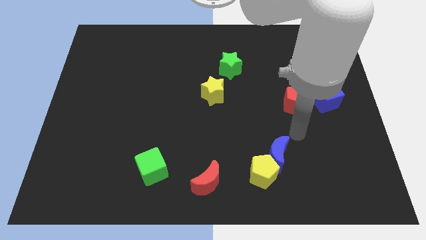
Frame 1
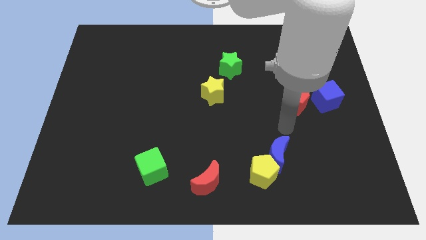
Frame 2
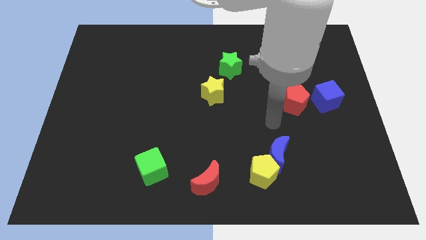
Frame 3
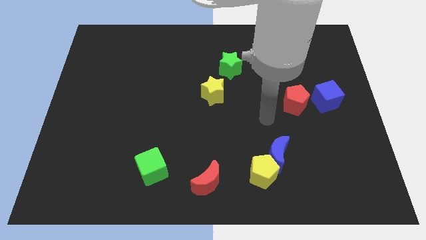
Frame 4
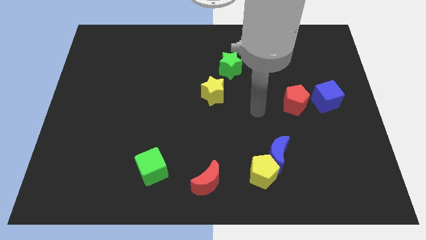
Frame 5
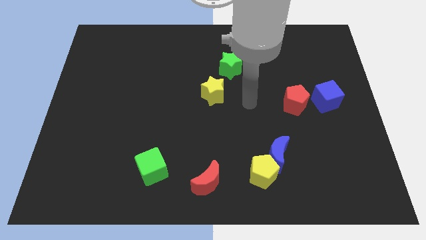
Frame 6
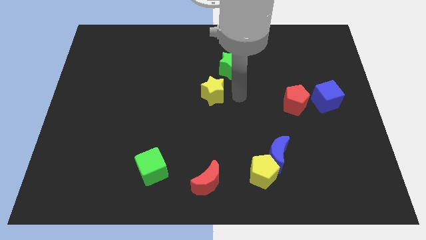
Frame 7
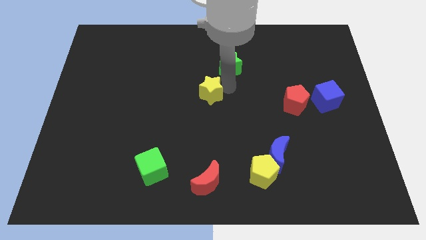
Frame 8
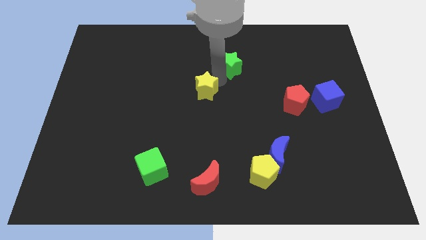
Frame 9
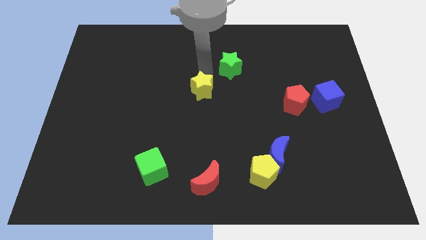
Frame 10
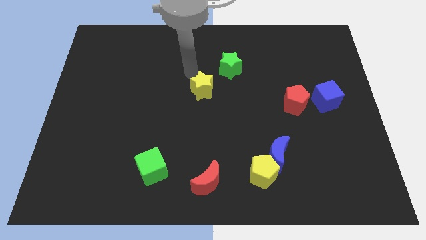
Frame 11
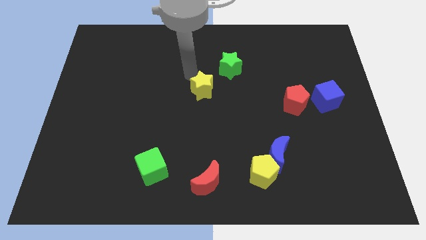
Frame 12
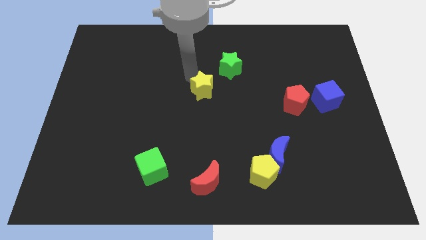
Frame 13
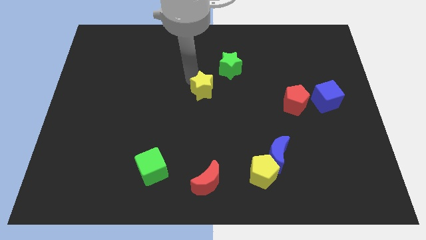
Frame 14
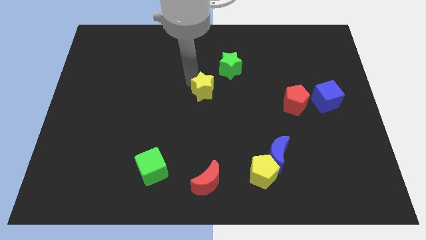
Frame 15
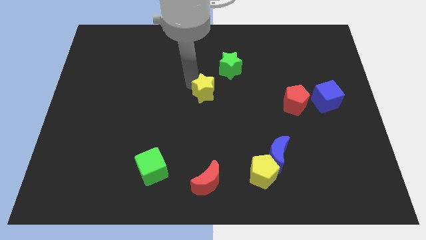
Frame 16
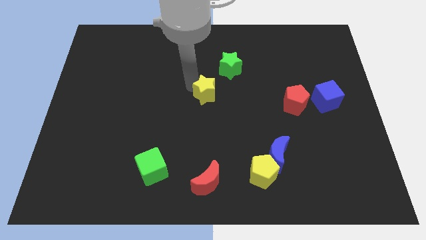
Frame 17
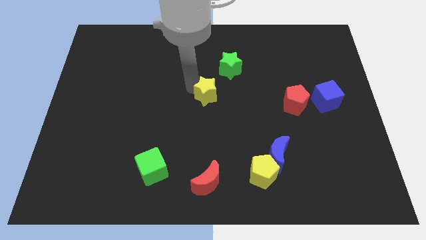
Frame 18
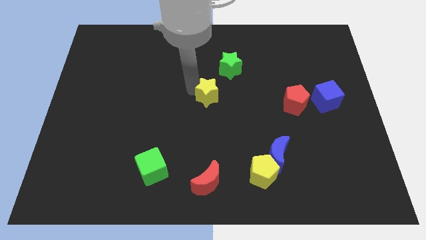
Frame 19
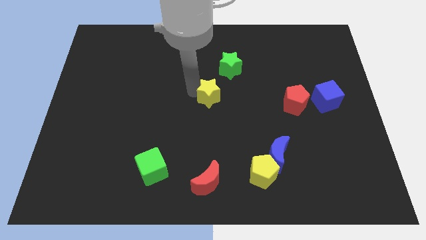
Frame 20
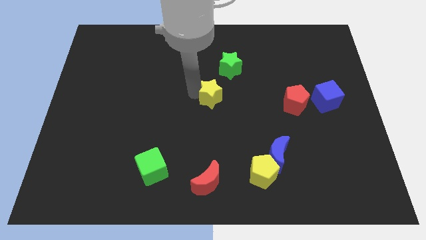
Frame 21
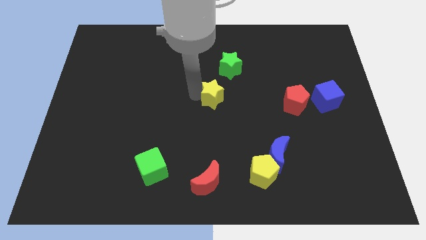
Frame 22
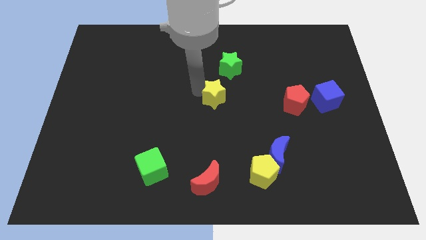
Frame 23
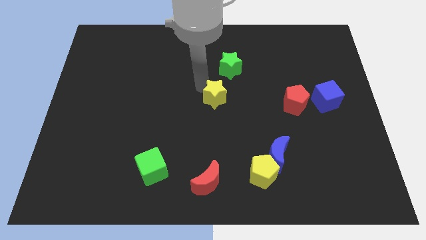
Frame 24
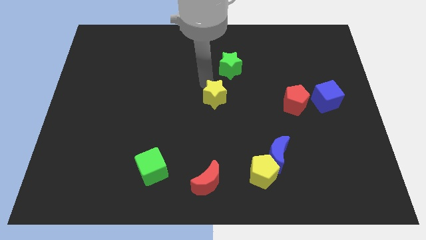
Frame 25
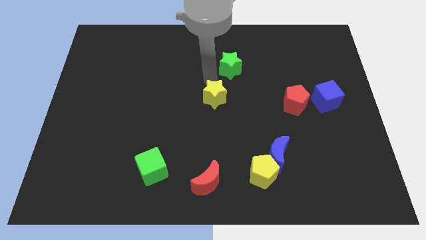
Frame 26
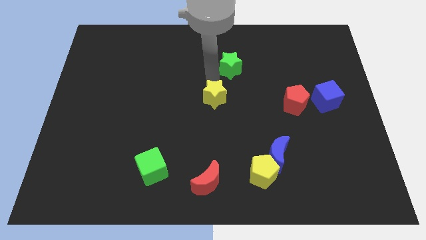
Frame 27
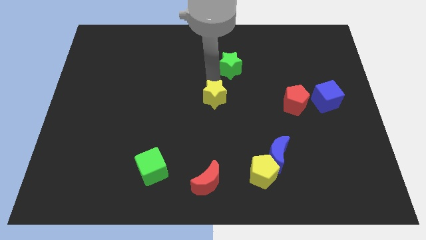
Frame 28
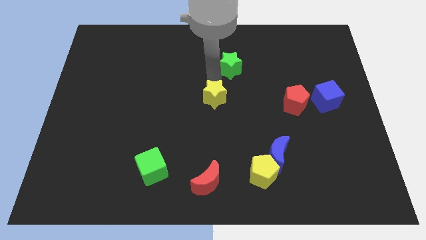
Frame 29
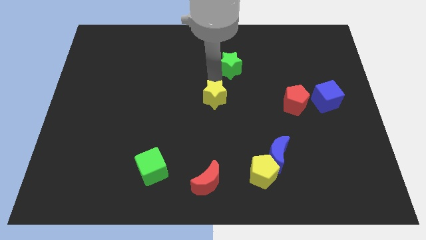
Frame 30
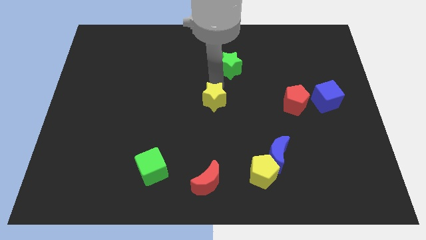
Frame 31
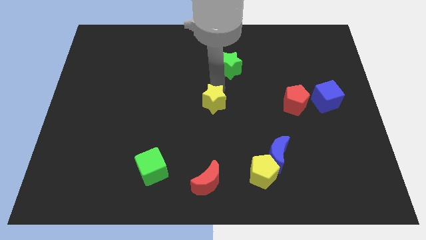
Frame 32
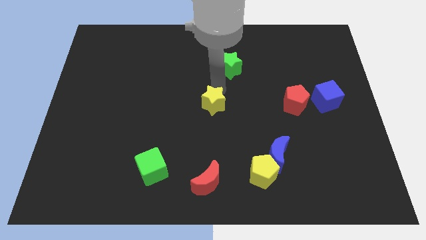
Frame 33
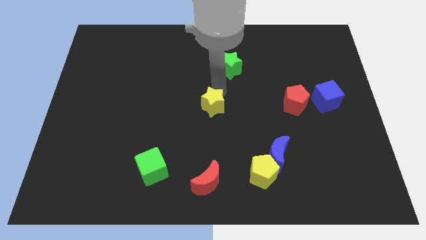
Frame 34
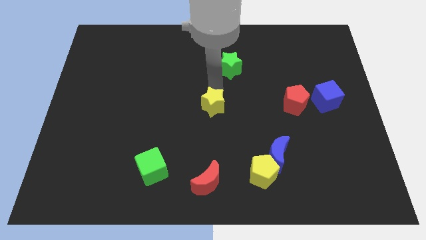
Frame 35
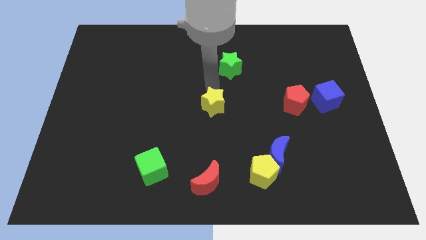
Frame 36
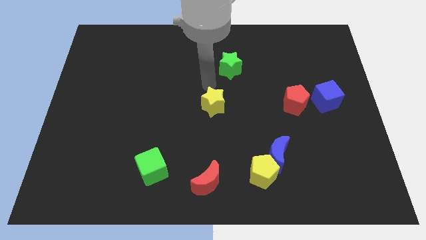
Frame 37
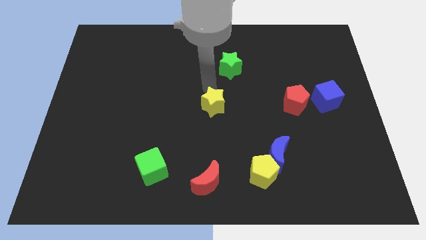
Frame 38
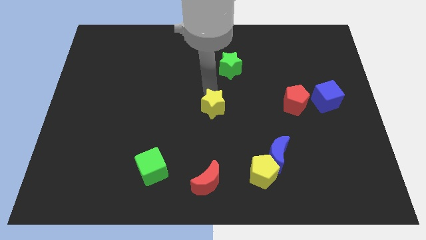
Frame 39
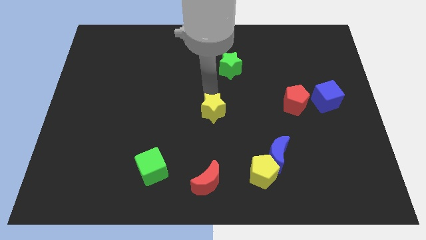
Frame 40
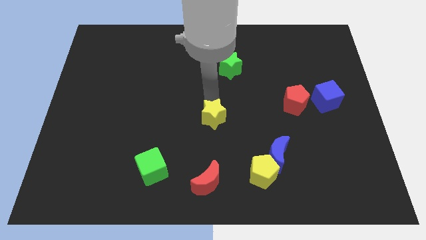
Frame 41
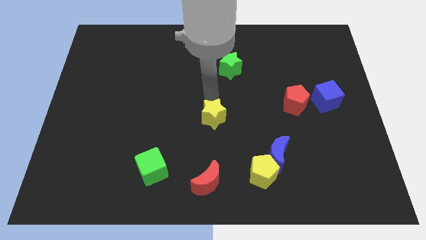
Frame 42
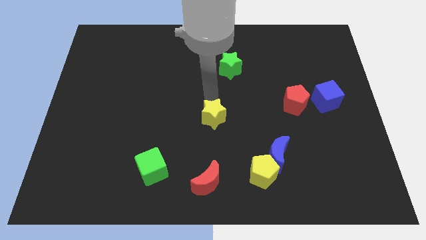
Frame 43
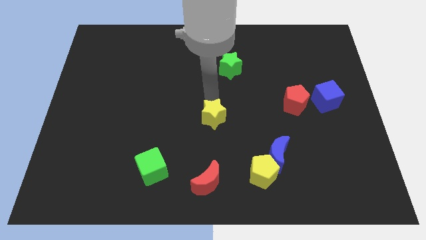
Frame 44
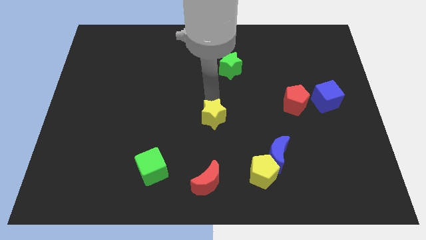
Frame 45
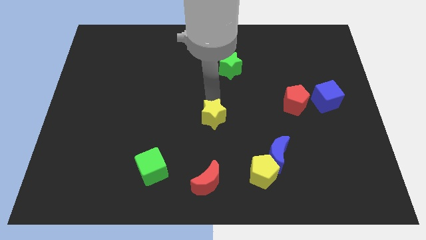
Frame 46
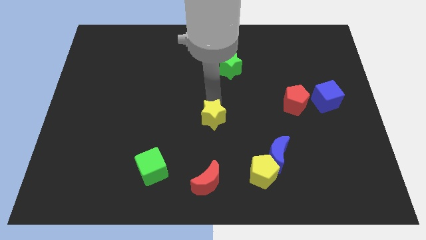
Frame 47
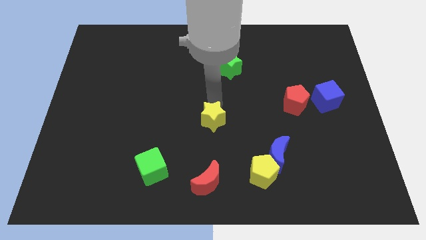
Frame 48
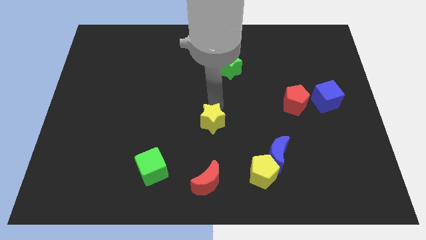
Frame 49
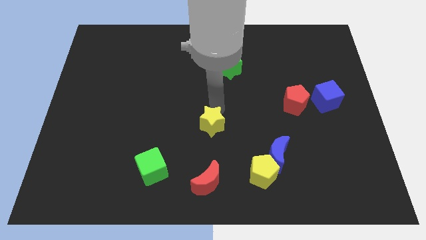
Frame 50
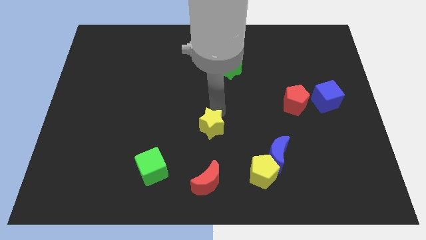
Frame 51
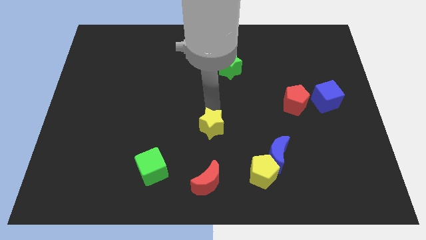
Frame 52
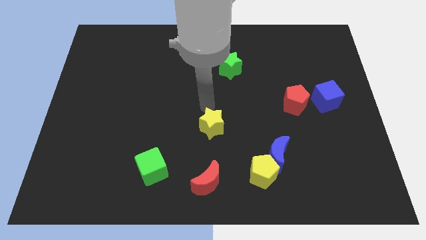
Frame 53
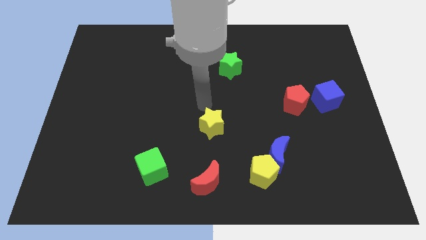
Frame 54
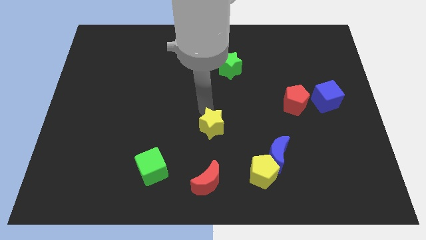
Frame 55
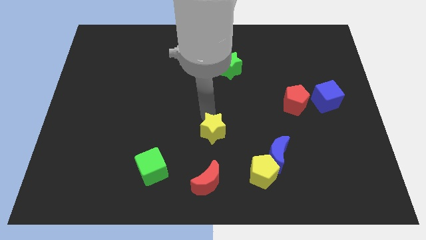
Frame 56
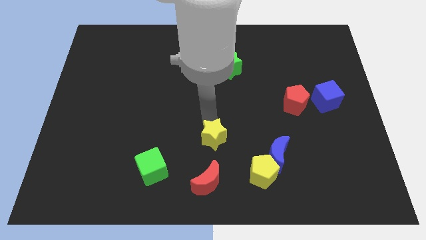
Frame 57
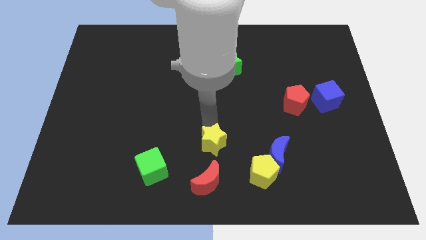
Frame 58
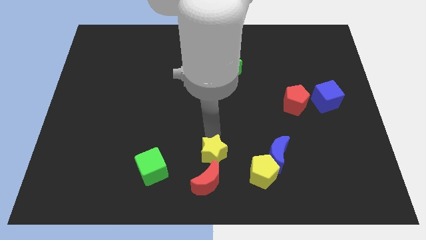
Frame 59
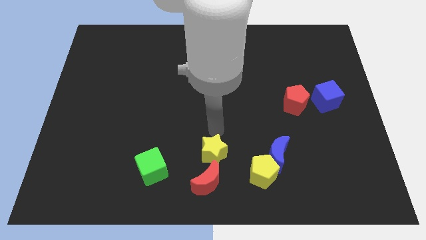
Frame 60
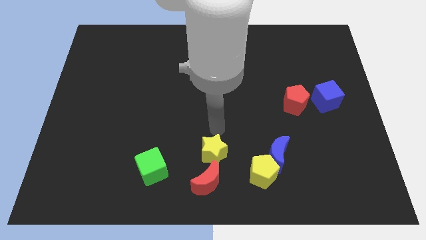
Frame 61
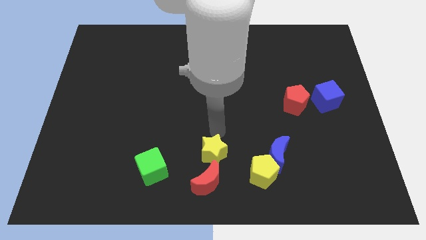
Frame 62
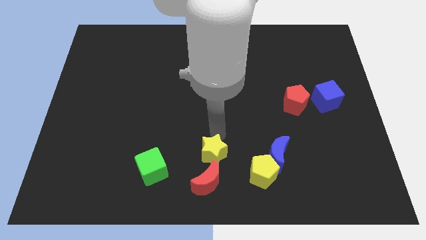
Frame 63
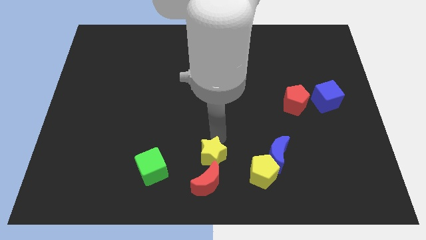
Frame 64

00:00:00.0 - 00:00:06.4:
put the yellow star next to the red moon
